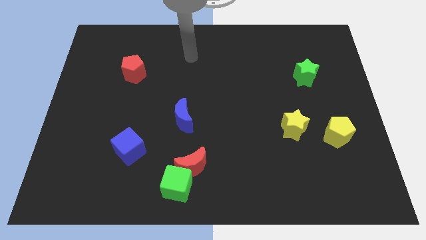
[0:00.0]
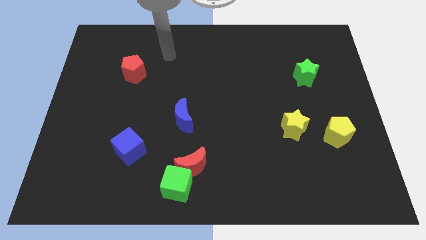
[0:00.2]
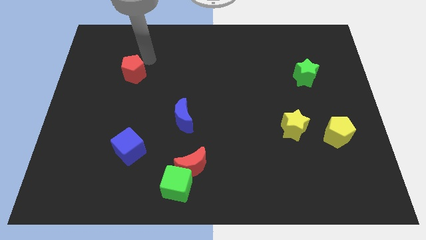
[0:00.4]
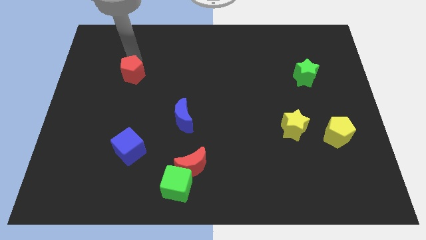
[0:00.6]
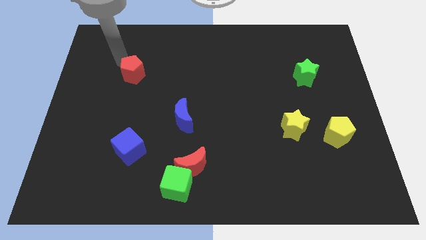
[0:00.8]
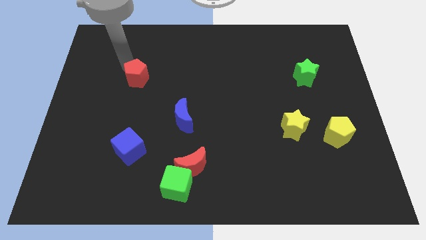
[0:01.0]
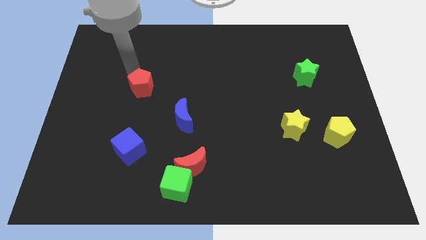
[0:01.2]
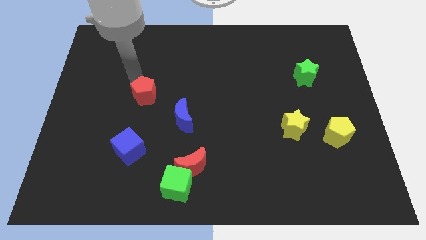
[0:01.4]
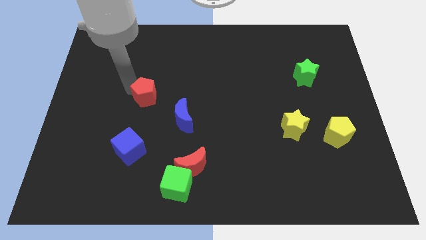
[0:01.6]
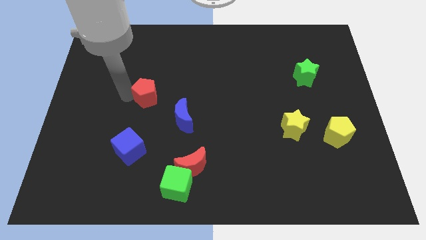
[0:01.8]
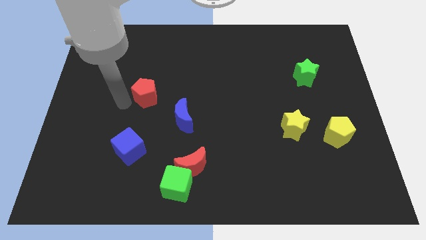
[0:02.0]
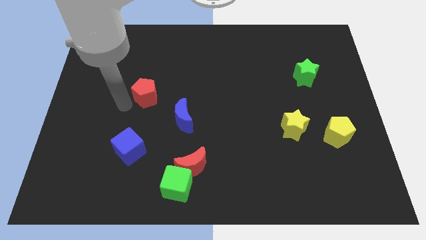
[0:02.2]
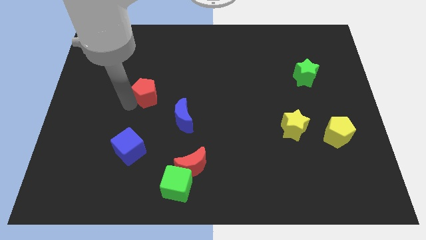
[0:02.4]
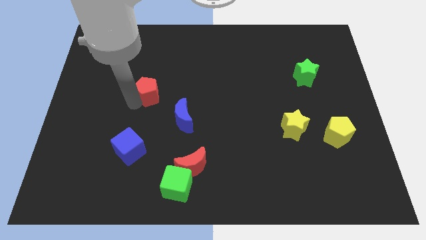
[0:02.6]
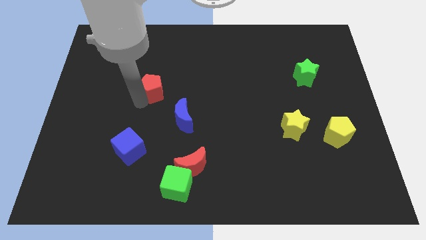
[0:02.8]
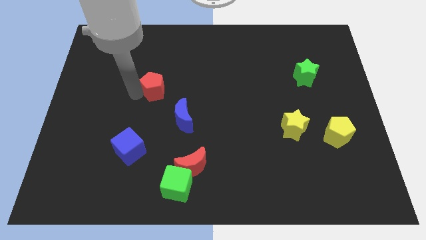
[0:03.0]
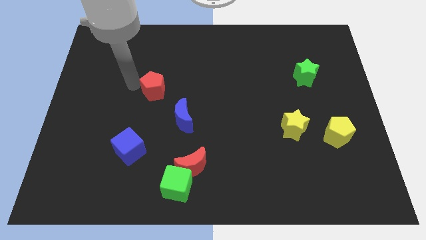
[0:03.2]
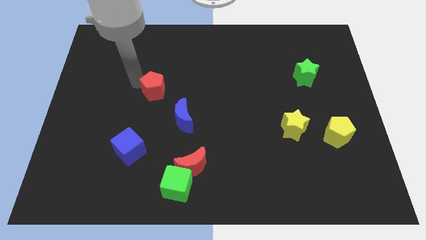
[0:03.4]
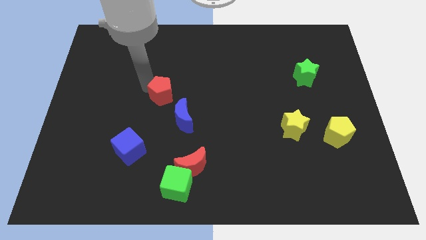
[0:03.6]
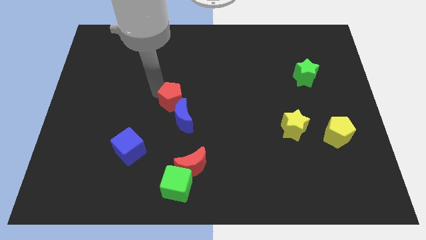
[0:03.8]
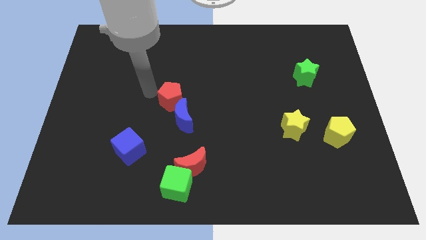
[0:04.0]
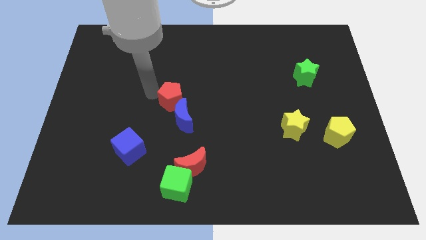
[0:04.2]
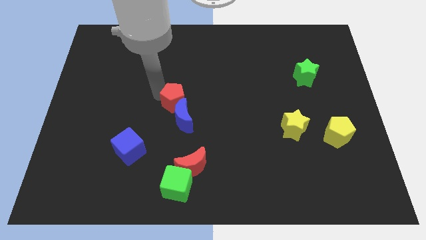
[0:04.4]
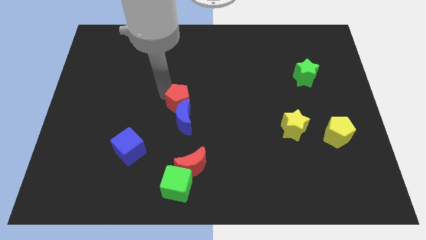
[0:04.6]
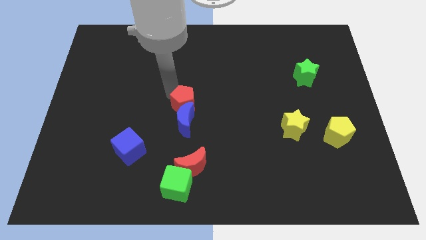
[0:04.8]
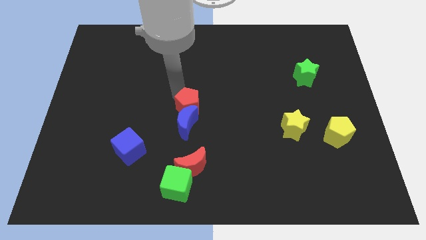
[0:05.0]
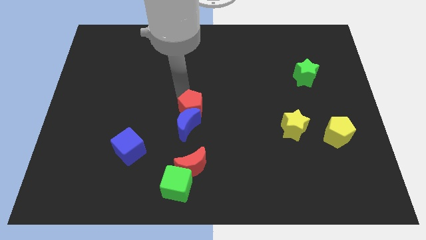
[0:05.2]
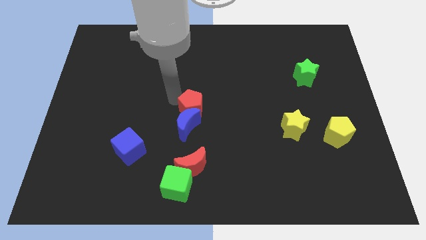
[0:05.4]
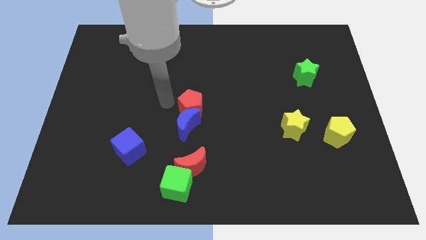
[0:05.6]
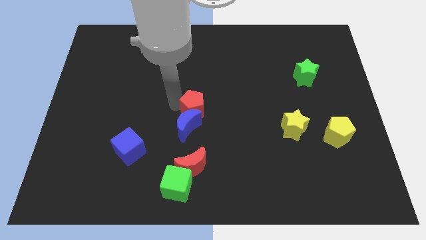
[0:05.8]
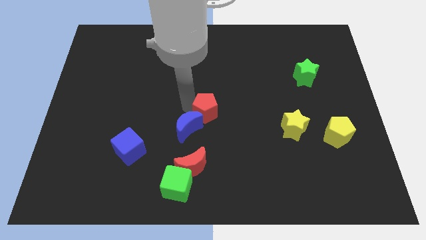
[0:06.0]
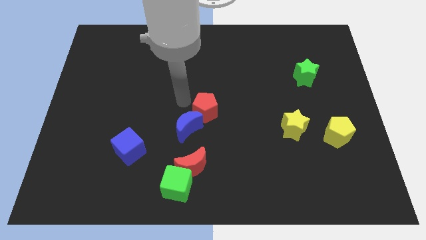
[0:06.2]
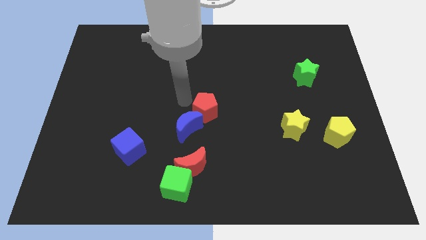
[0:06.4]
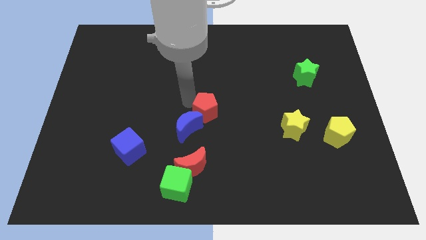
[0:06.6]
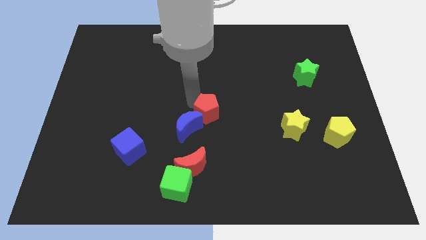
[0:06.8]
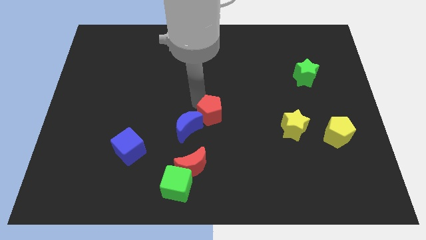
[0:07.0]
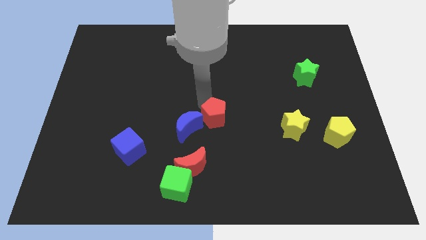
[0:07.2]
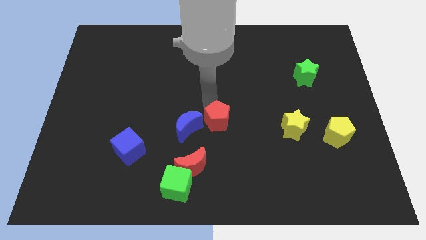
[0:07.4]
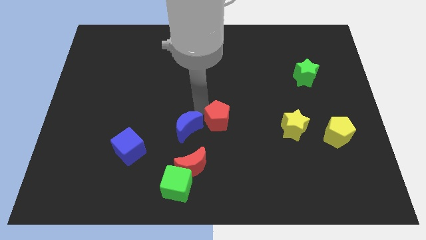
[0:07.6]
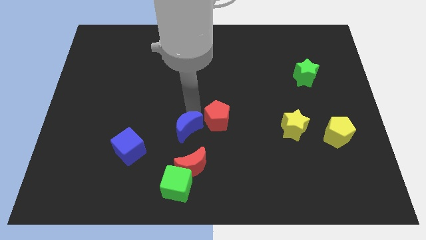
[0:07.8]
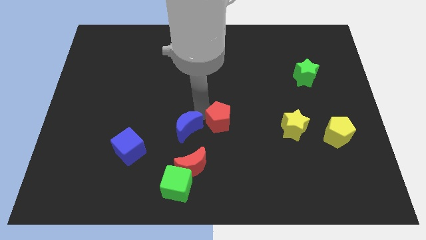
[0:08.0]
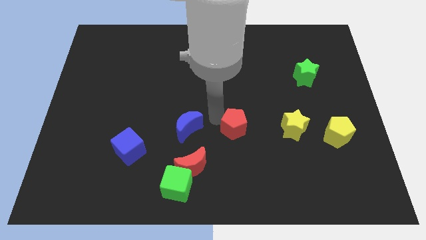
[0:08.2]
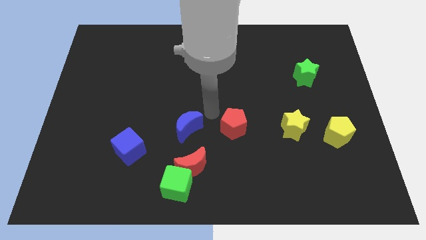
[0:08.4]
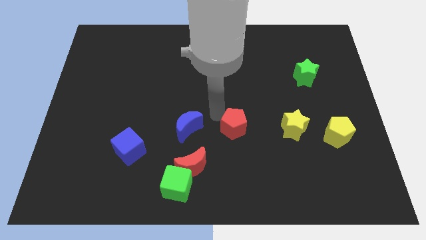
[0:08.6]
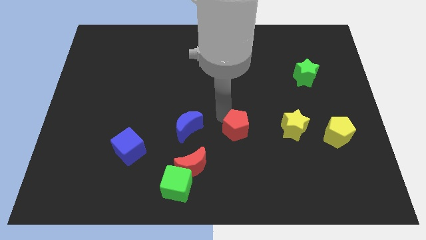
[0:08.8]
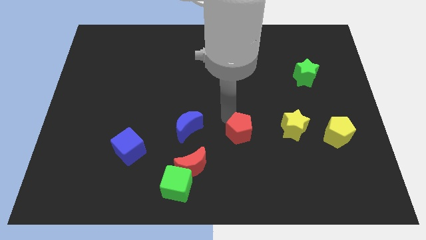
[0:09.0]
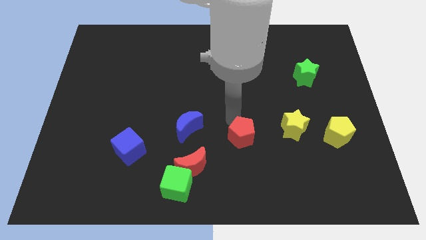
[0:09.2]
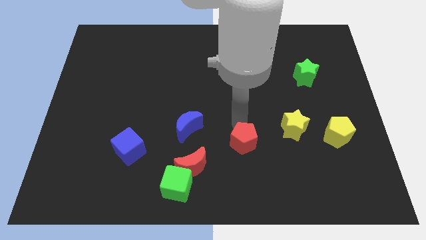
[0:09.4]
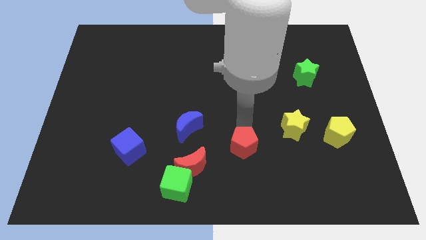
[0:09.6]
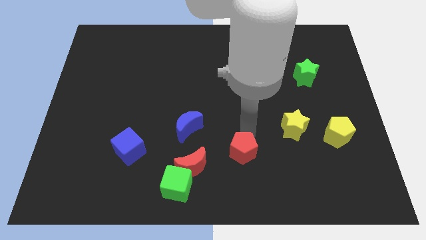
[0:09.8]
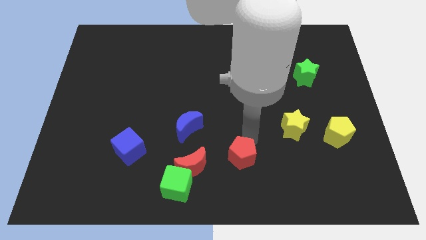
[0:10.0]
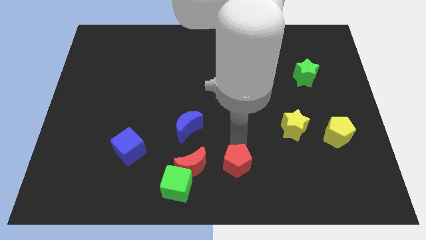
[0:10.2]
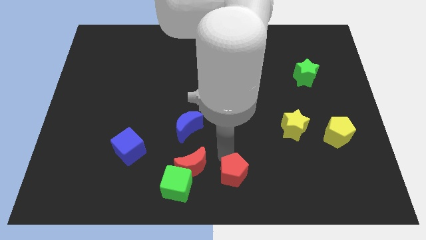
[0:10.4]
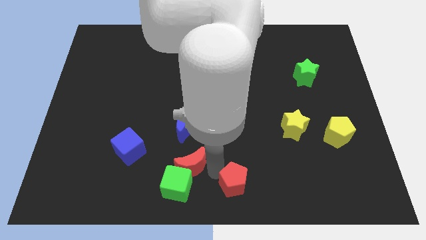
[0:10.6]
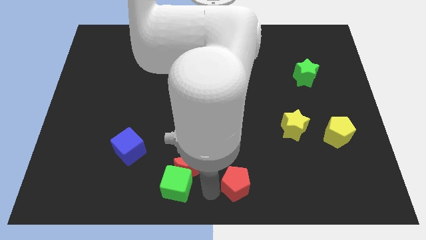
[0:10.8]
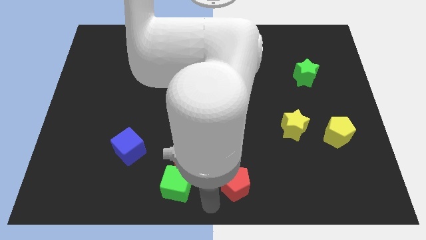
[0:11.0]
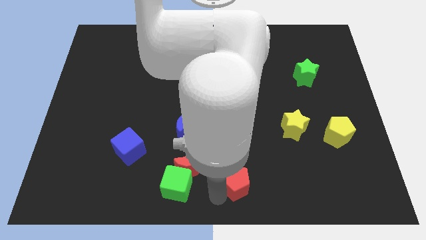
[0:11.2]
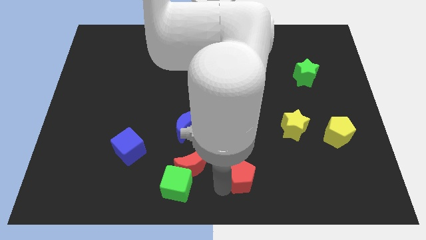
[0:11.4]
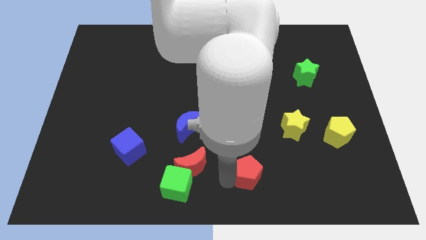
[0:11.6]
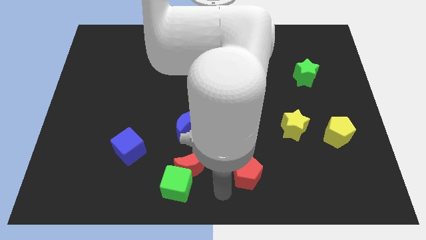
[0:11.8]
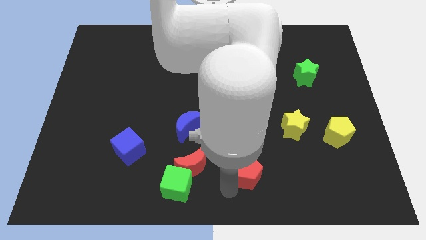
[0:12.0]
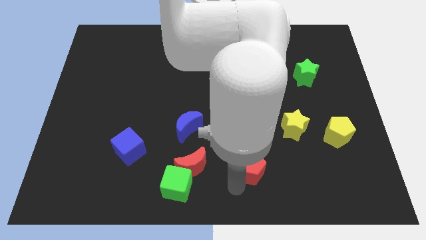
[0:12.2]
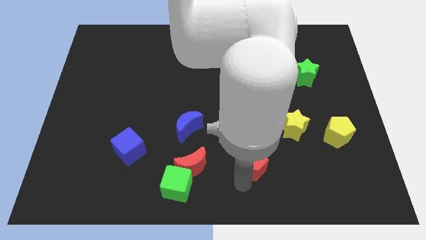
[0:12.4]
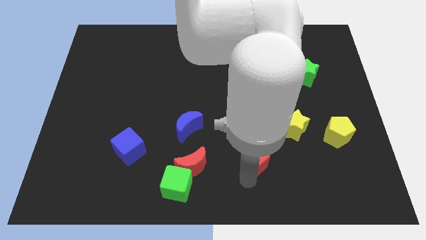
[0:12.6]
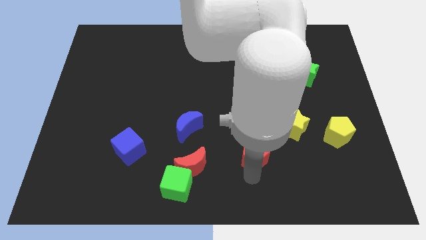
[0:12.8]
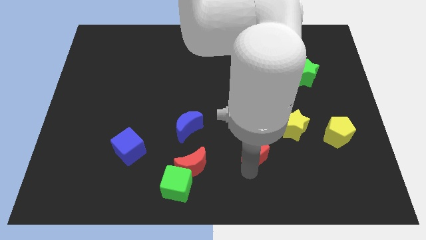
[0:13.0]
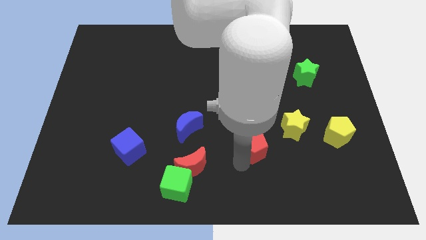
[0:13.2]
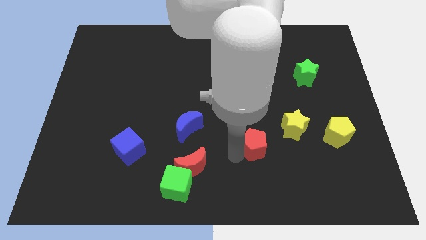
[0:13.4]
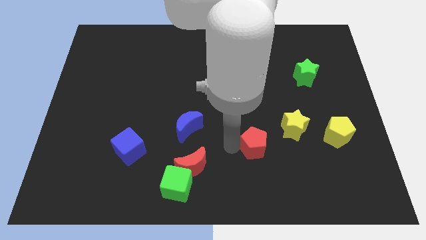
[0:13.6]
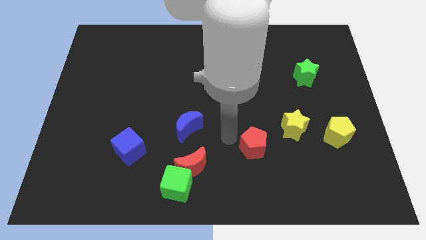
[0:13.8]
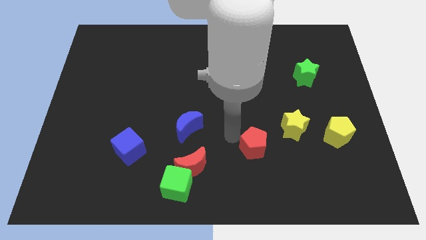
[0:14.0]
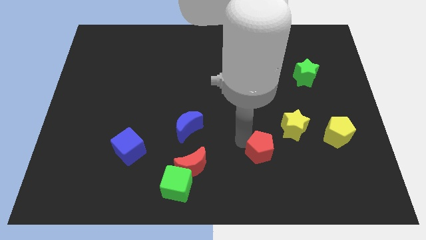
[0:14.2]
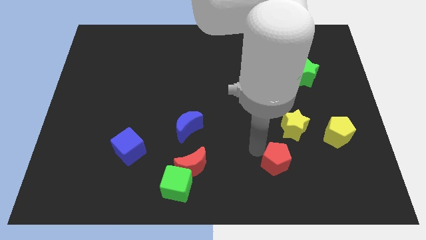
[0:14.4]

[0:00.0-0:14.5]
slide the red pentagon to the bottom of the yellow star
